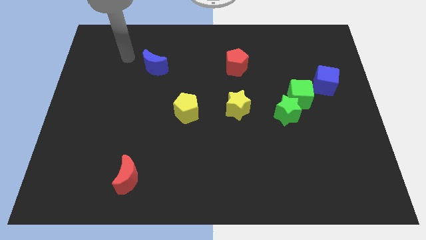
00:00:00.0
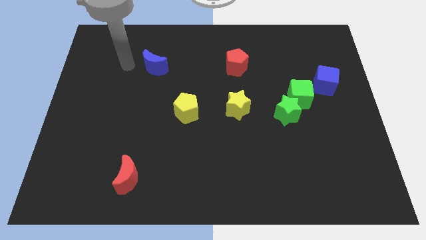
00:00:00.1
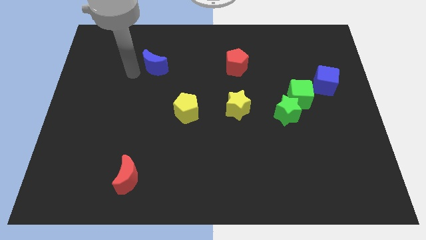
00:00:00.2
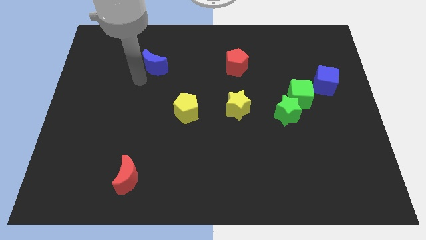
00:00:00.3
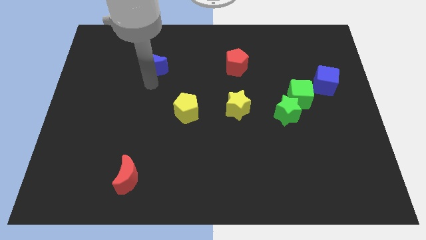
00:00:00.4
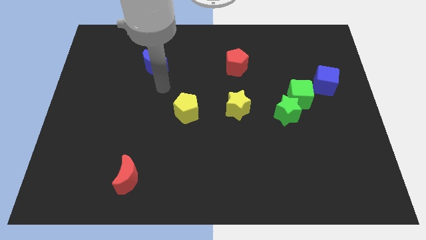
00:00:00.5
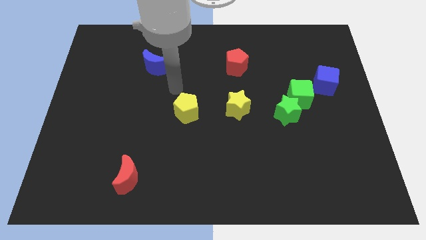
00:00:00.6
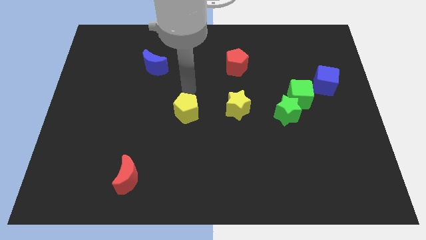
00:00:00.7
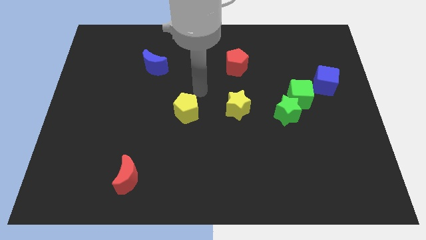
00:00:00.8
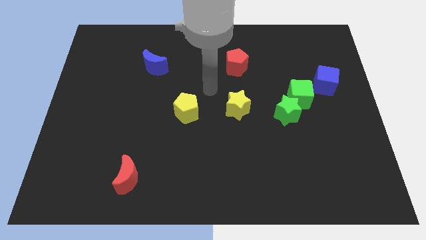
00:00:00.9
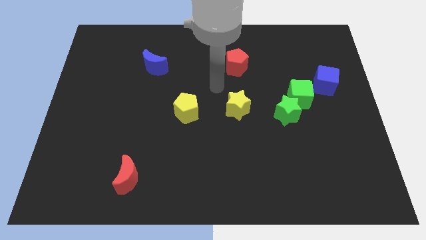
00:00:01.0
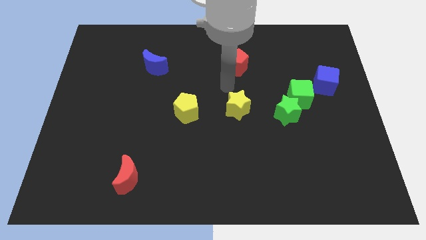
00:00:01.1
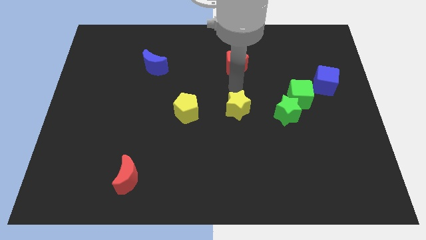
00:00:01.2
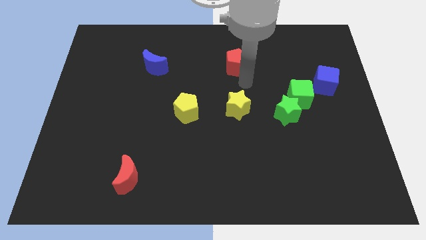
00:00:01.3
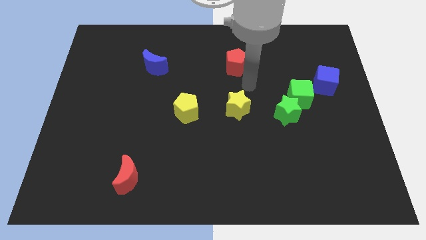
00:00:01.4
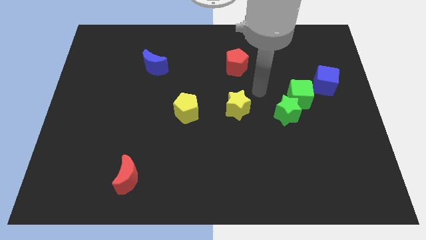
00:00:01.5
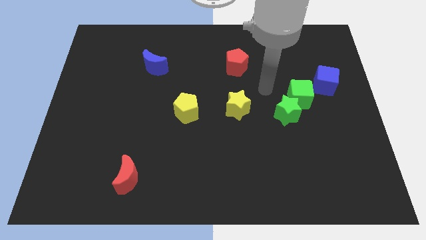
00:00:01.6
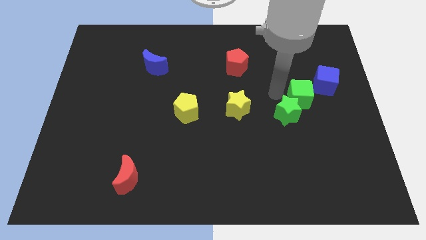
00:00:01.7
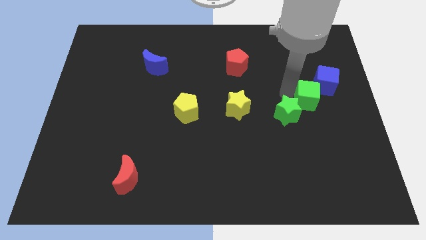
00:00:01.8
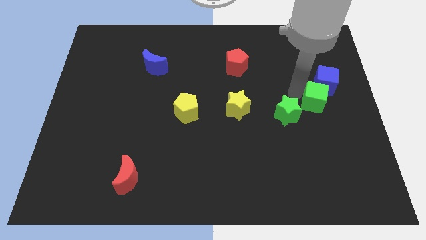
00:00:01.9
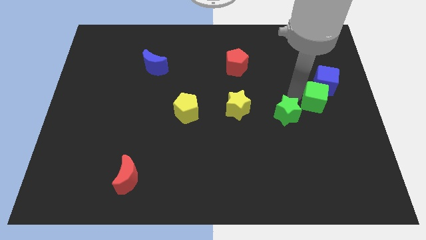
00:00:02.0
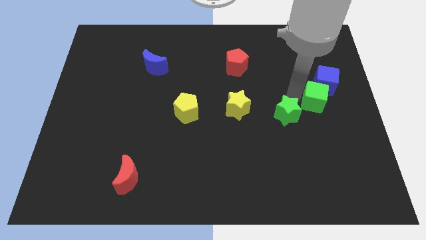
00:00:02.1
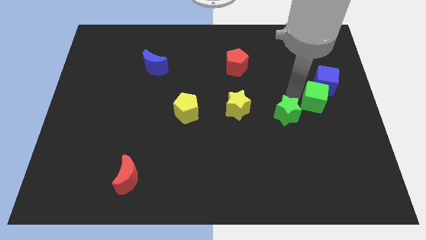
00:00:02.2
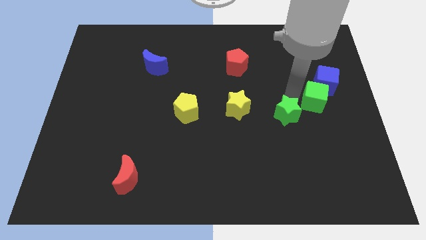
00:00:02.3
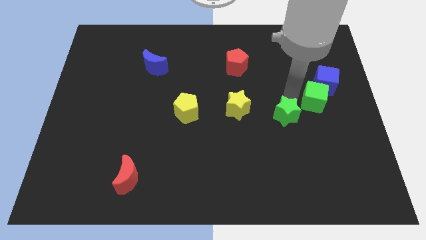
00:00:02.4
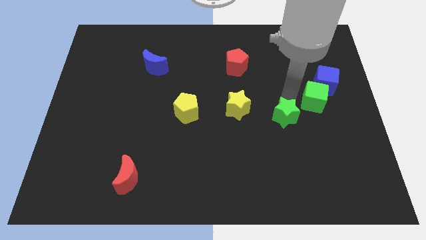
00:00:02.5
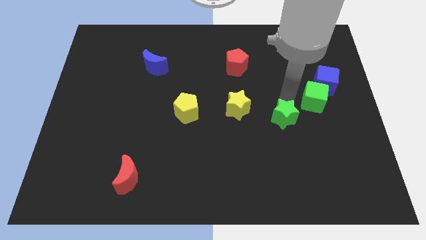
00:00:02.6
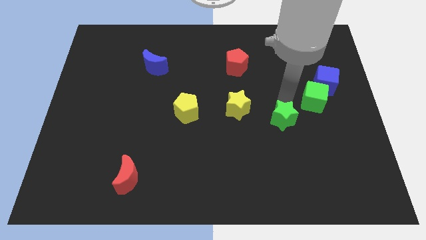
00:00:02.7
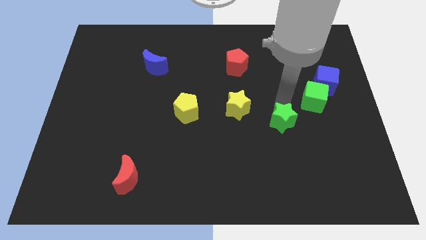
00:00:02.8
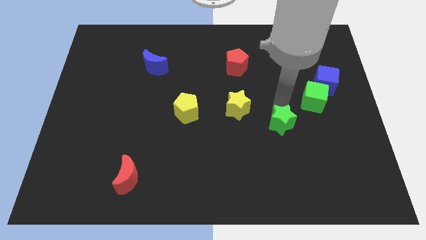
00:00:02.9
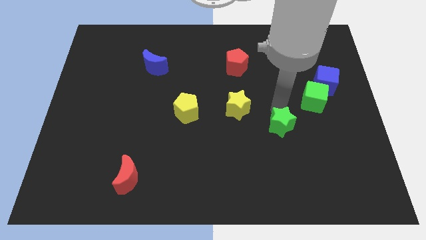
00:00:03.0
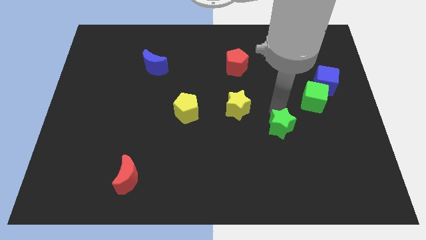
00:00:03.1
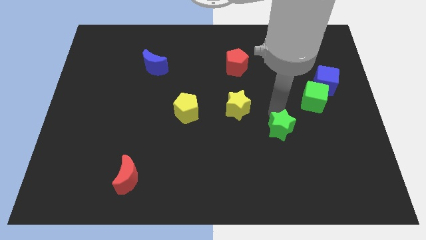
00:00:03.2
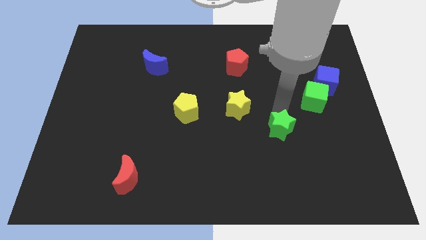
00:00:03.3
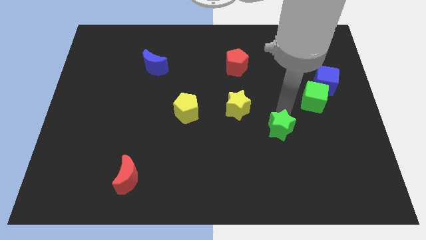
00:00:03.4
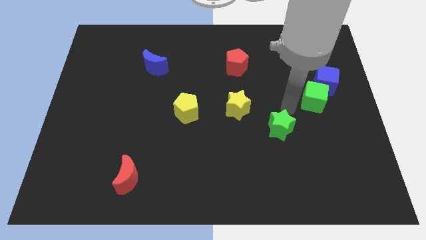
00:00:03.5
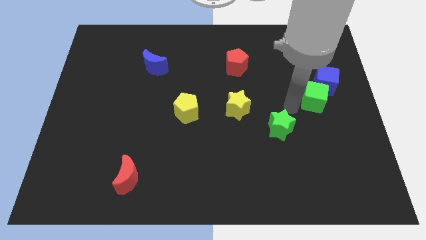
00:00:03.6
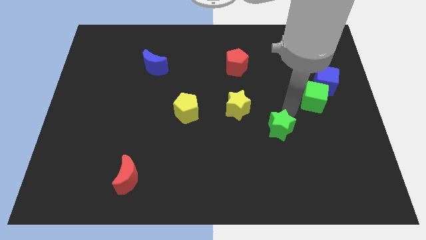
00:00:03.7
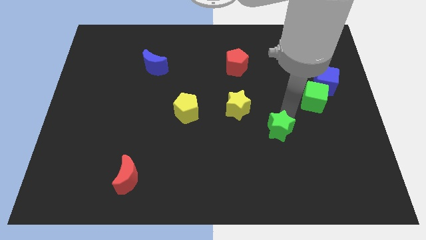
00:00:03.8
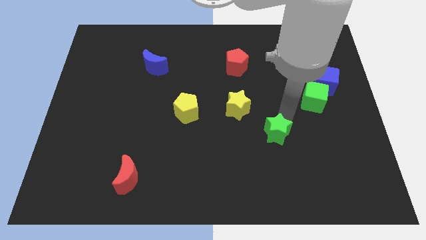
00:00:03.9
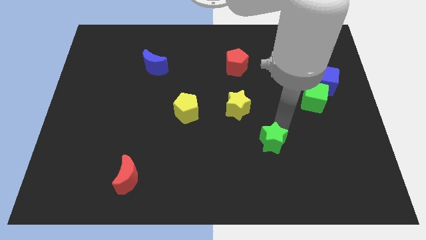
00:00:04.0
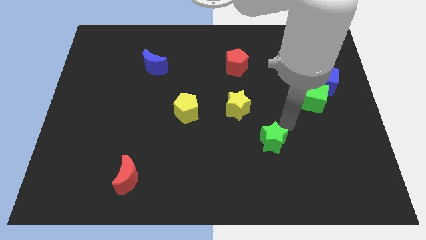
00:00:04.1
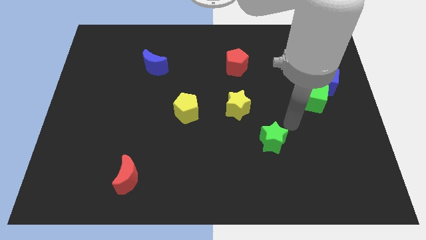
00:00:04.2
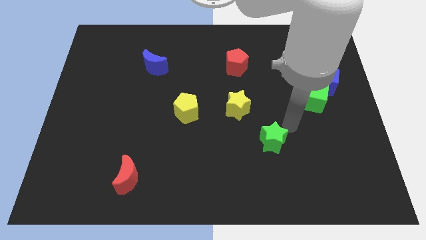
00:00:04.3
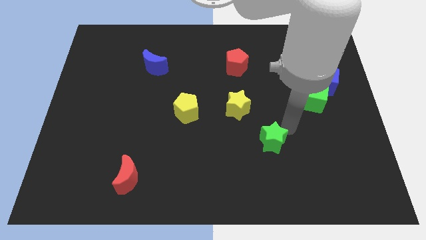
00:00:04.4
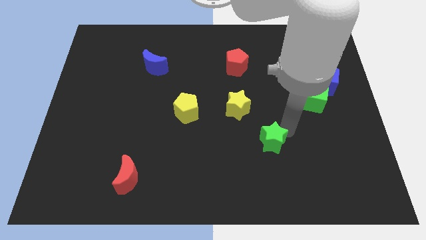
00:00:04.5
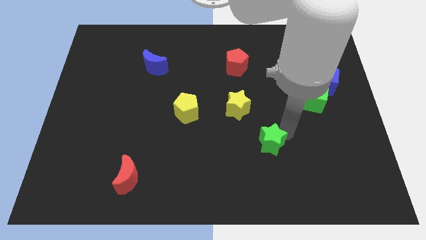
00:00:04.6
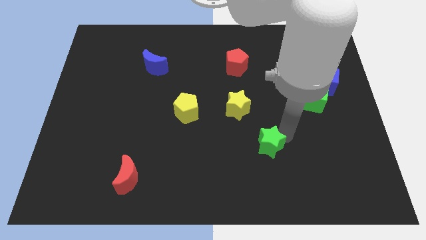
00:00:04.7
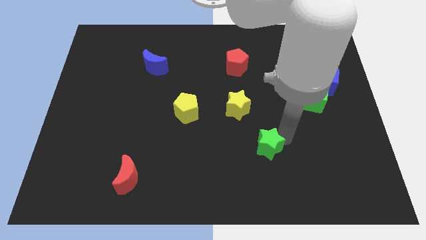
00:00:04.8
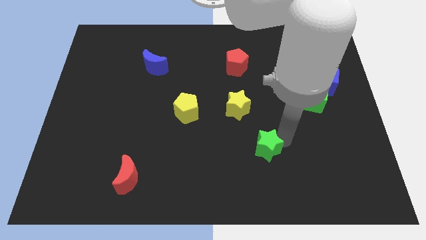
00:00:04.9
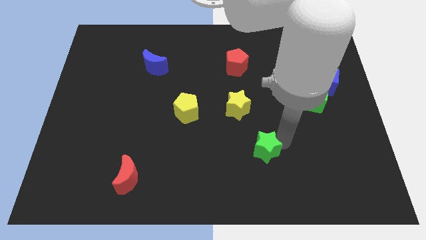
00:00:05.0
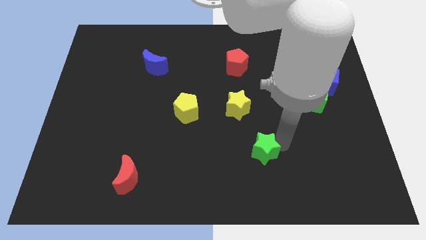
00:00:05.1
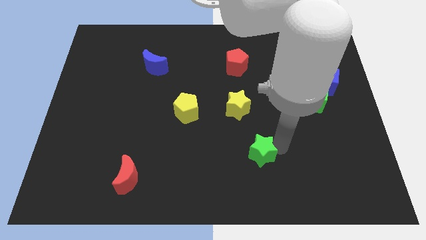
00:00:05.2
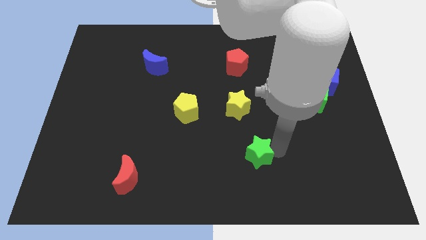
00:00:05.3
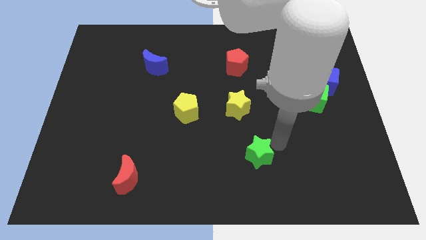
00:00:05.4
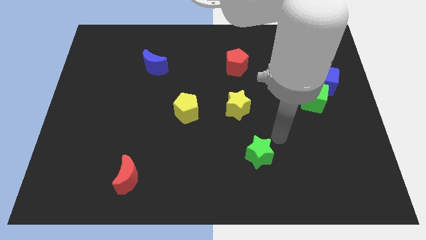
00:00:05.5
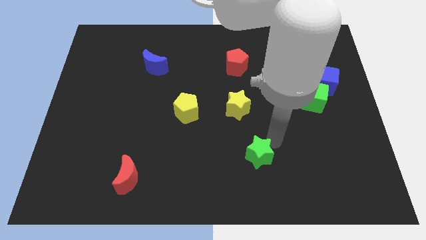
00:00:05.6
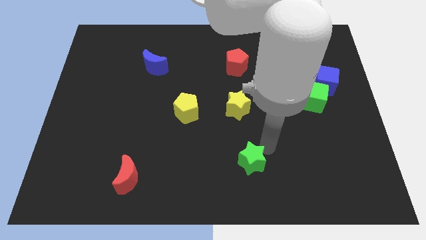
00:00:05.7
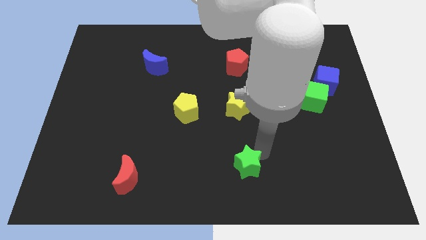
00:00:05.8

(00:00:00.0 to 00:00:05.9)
move the green star to the bottom
